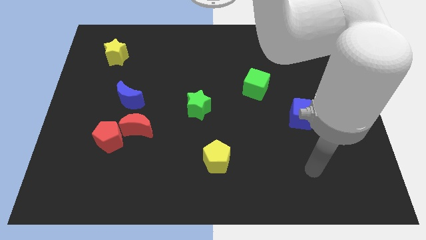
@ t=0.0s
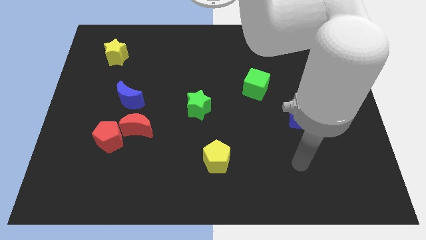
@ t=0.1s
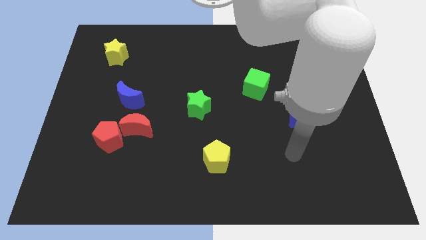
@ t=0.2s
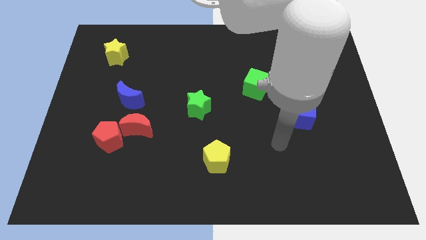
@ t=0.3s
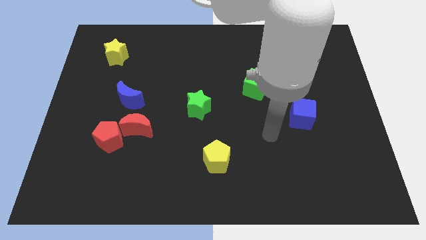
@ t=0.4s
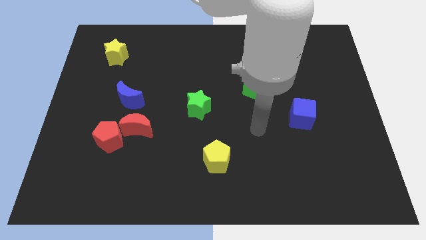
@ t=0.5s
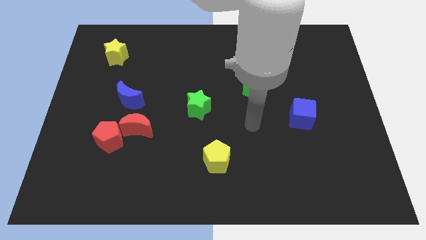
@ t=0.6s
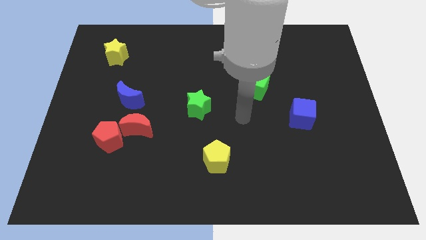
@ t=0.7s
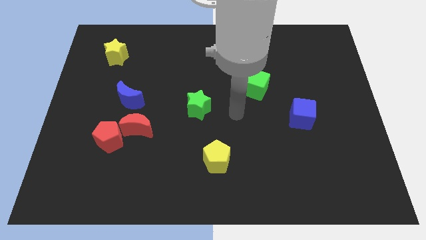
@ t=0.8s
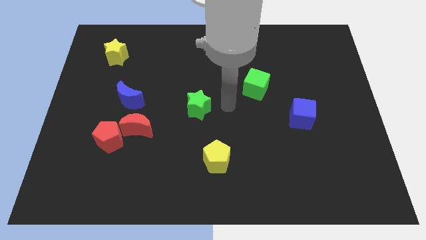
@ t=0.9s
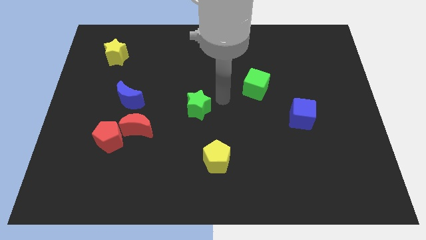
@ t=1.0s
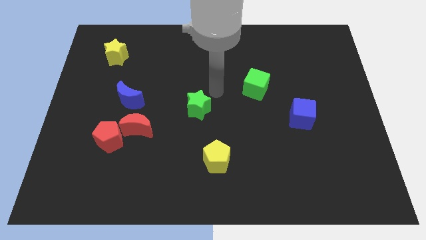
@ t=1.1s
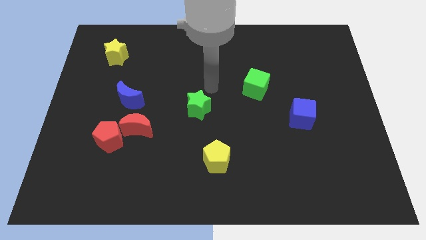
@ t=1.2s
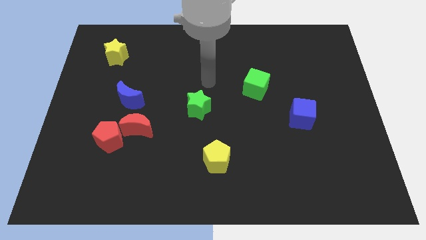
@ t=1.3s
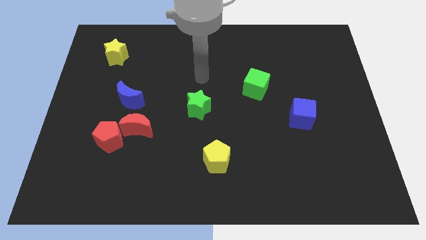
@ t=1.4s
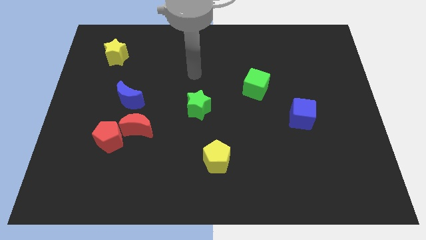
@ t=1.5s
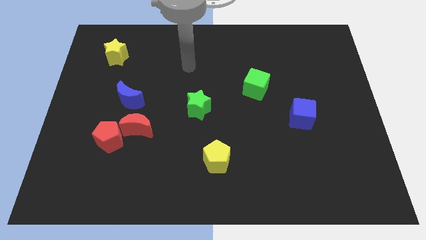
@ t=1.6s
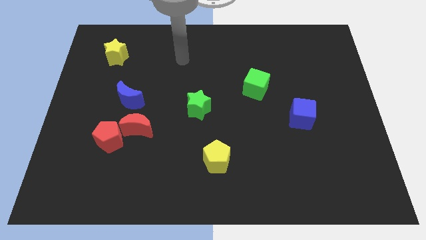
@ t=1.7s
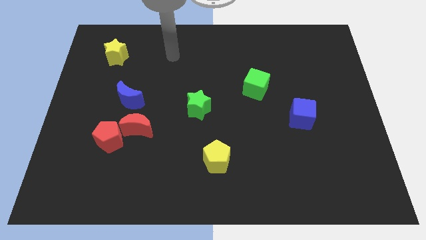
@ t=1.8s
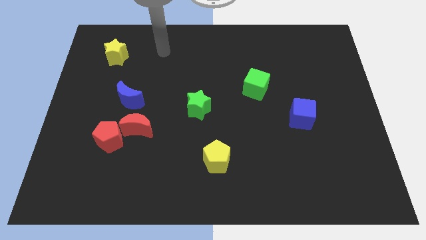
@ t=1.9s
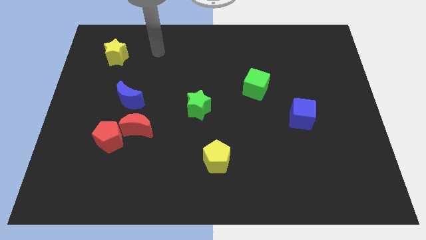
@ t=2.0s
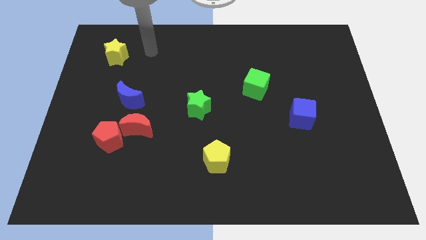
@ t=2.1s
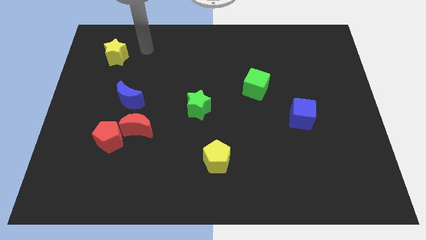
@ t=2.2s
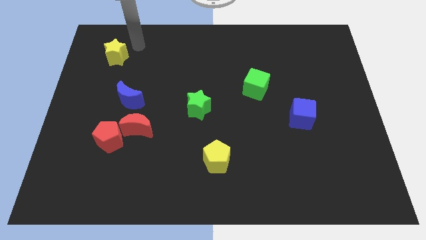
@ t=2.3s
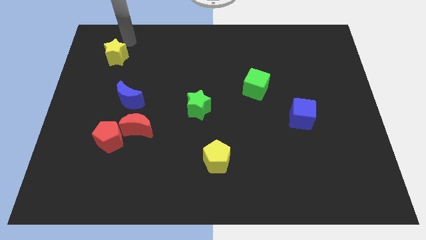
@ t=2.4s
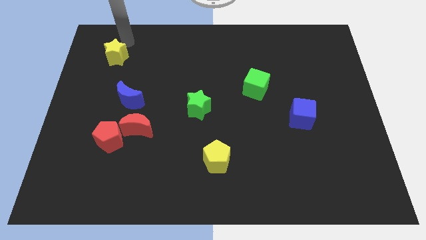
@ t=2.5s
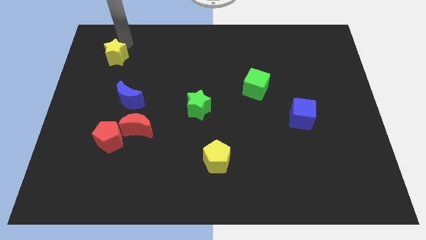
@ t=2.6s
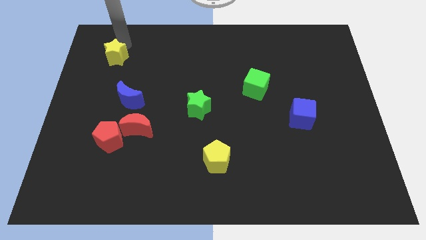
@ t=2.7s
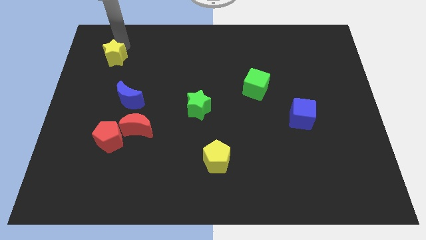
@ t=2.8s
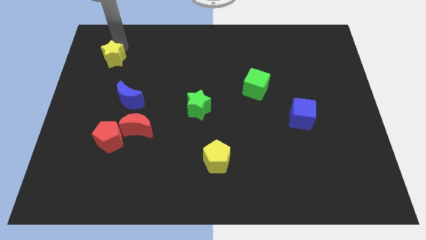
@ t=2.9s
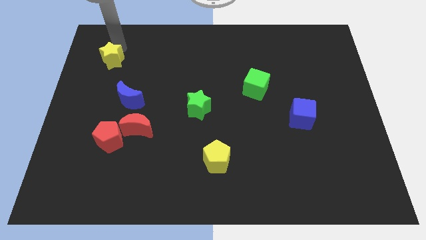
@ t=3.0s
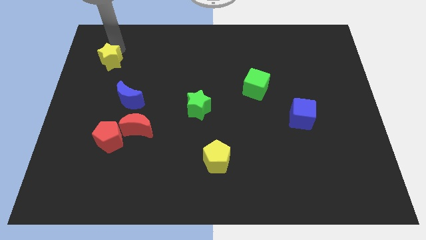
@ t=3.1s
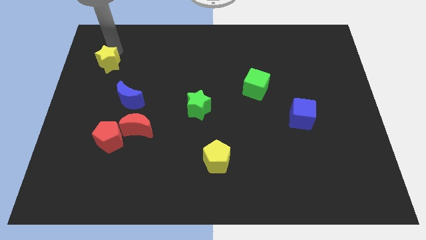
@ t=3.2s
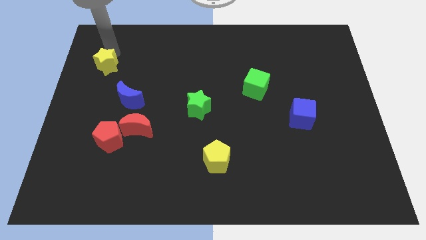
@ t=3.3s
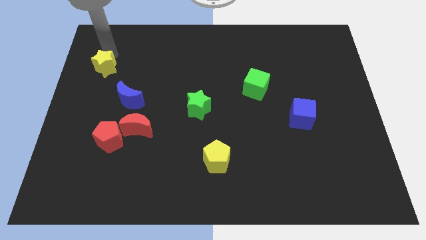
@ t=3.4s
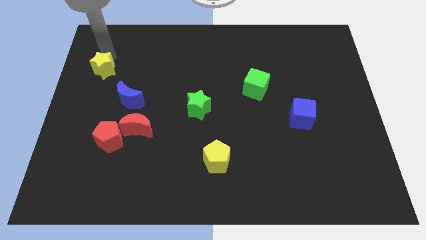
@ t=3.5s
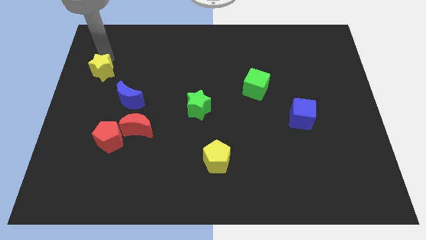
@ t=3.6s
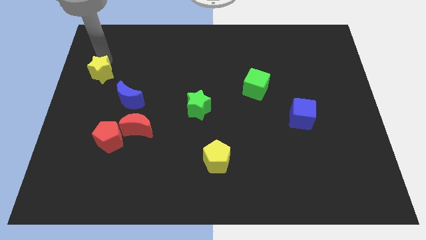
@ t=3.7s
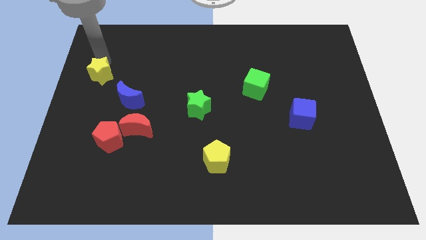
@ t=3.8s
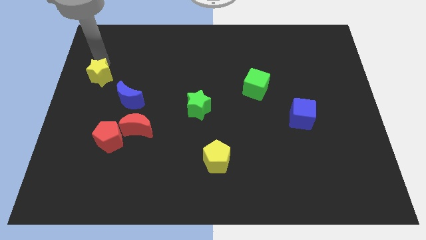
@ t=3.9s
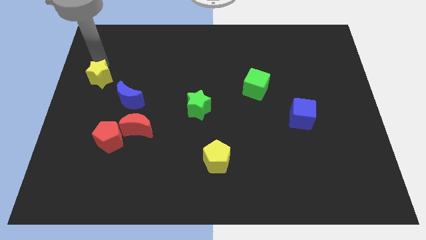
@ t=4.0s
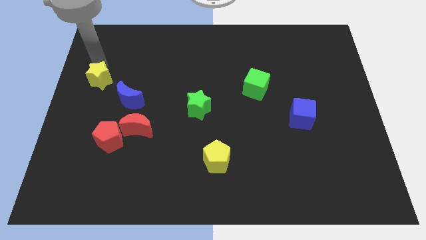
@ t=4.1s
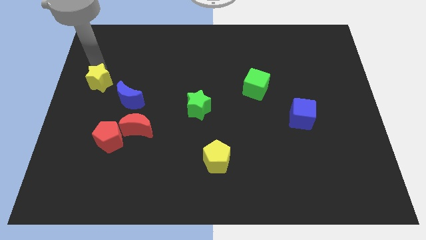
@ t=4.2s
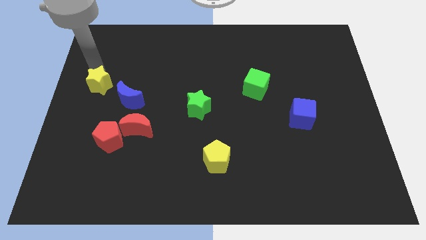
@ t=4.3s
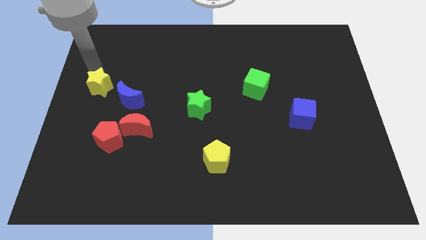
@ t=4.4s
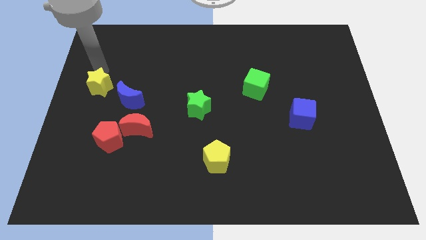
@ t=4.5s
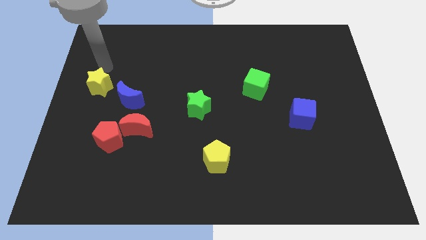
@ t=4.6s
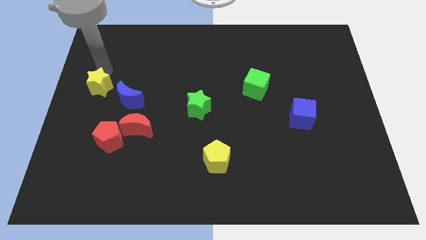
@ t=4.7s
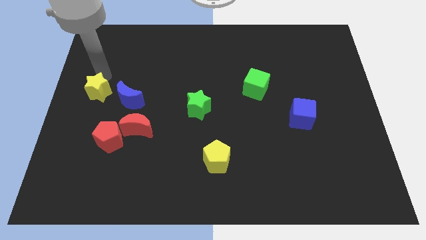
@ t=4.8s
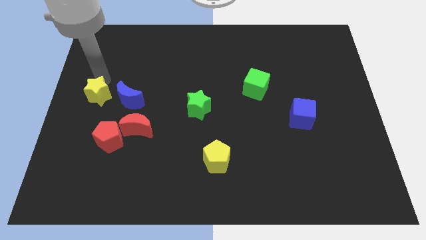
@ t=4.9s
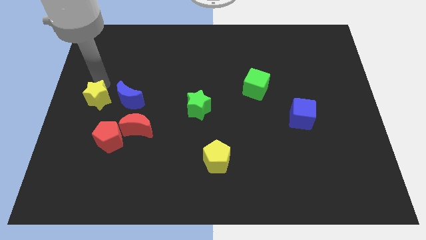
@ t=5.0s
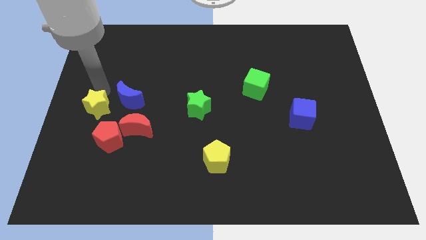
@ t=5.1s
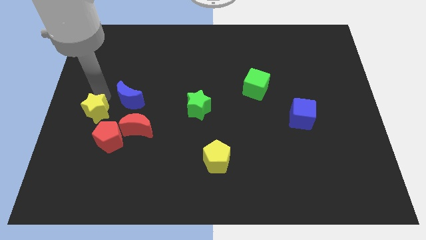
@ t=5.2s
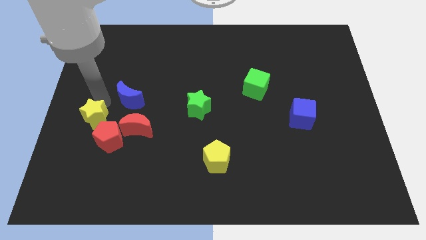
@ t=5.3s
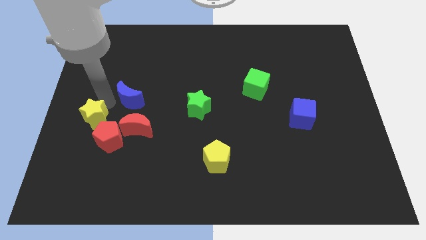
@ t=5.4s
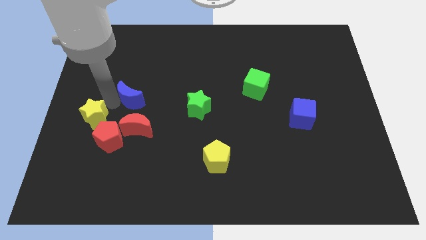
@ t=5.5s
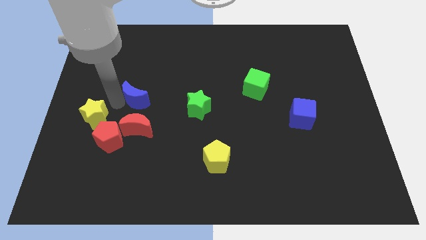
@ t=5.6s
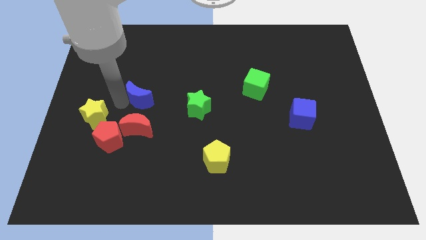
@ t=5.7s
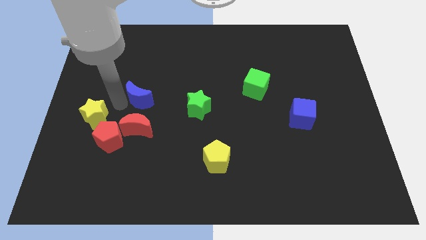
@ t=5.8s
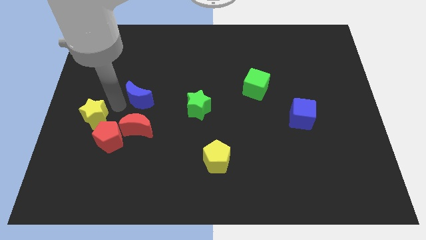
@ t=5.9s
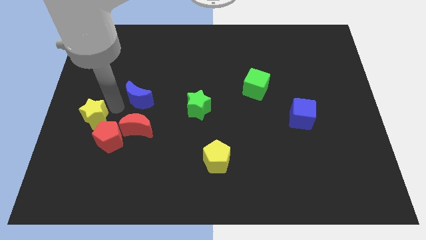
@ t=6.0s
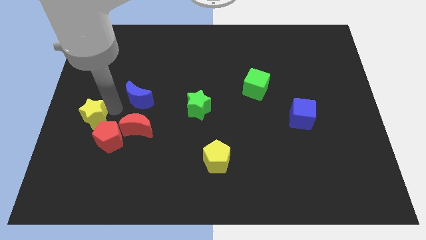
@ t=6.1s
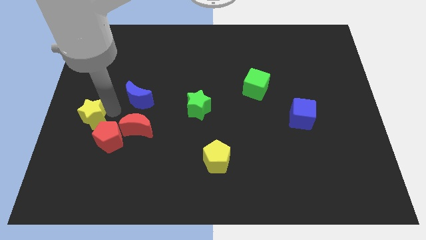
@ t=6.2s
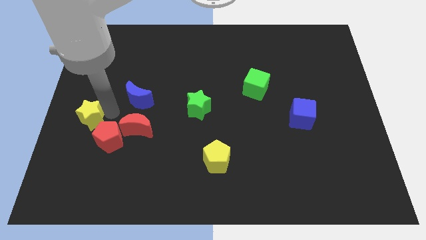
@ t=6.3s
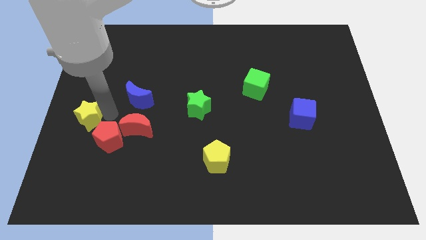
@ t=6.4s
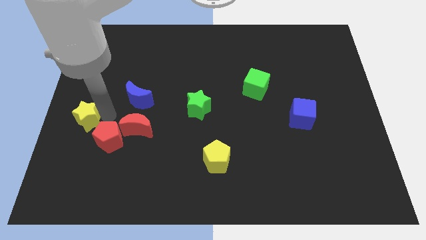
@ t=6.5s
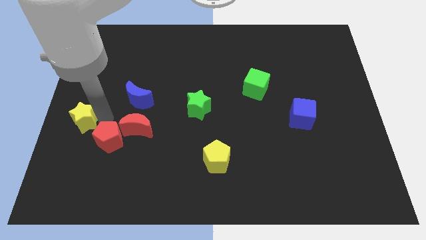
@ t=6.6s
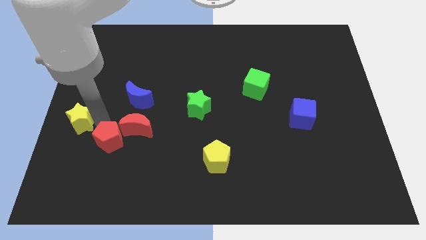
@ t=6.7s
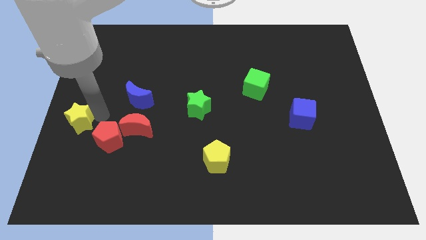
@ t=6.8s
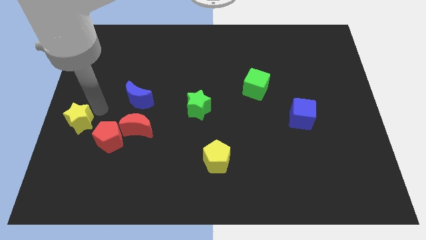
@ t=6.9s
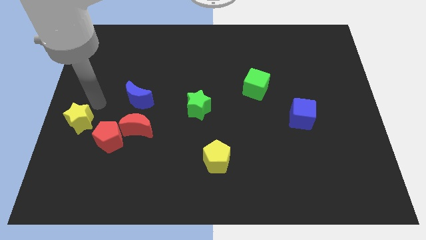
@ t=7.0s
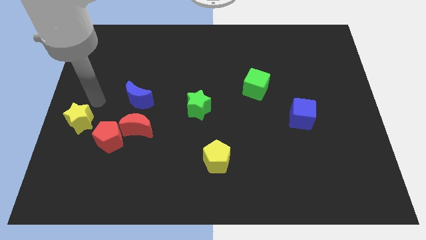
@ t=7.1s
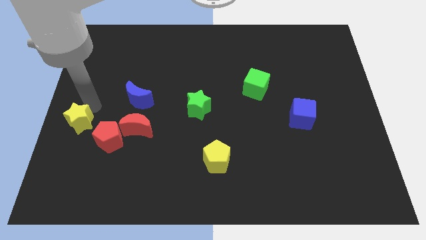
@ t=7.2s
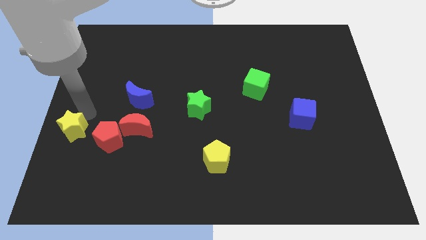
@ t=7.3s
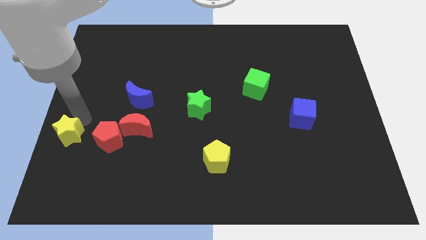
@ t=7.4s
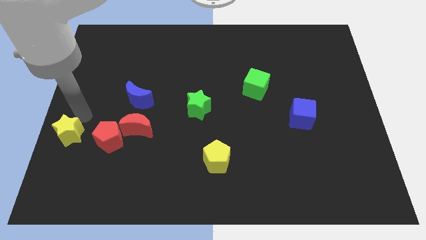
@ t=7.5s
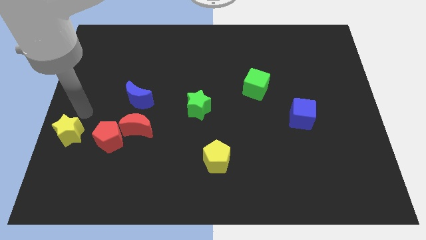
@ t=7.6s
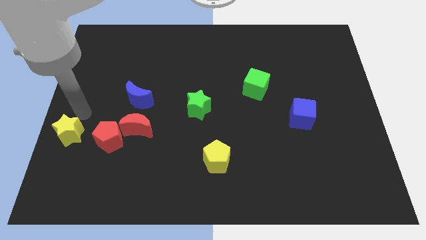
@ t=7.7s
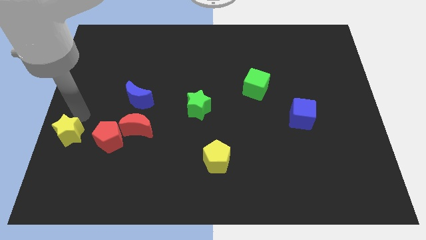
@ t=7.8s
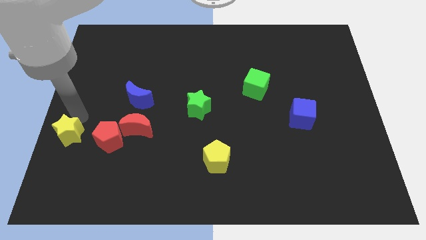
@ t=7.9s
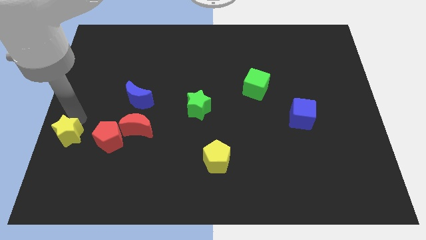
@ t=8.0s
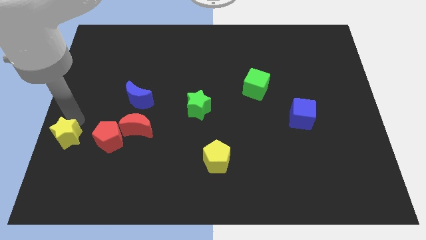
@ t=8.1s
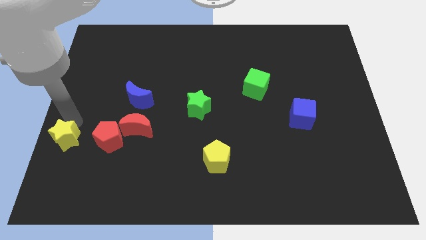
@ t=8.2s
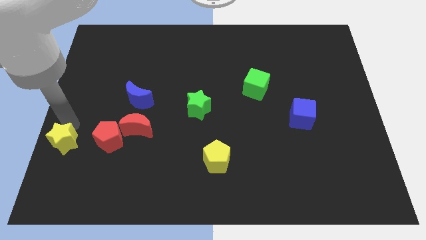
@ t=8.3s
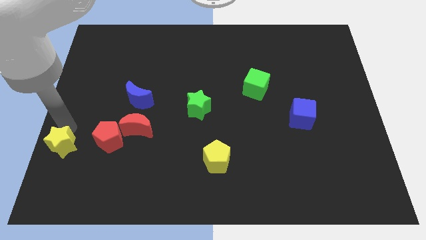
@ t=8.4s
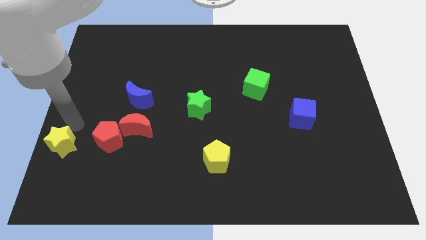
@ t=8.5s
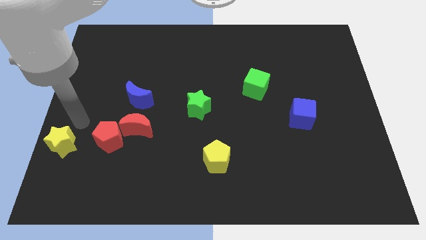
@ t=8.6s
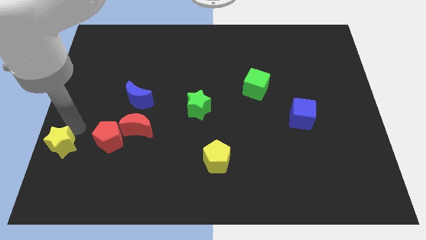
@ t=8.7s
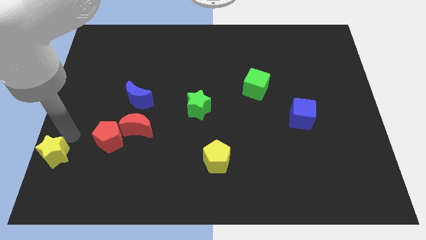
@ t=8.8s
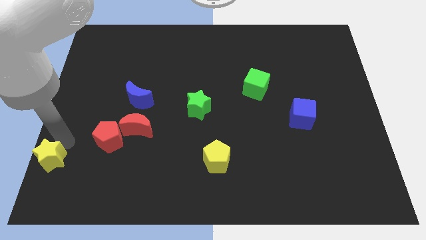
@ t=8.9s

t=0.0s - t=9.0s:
slide the yellow star to the bottom left corner
